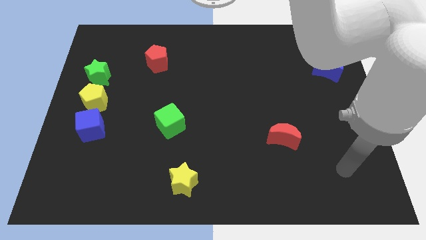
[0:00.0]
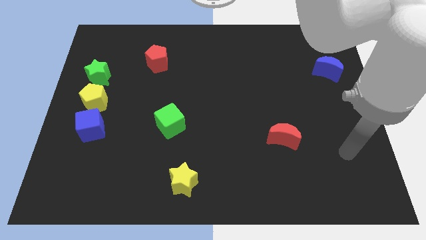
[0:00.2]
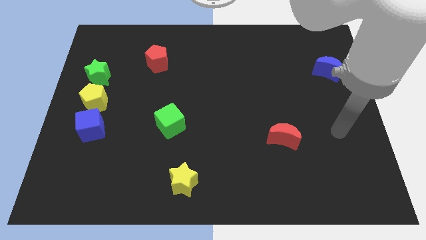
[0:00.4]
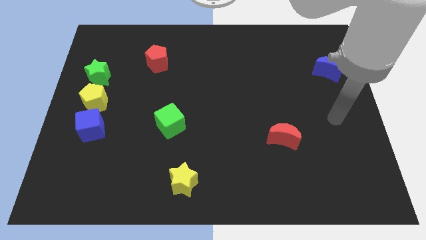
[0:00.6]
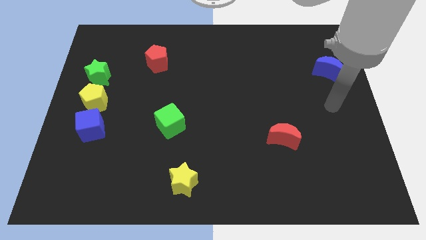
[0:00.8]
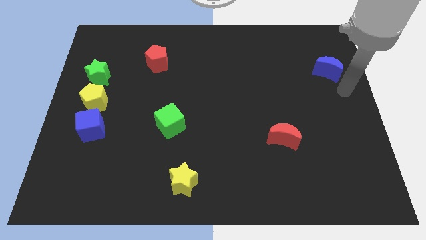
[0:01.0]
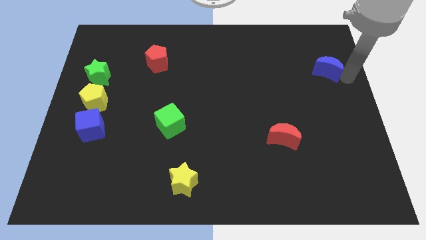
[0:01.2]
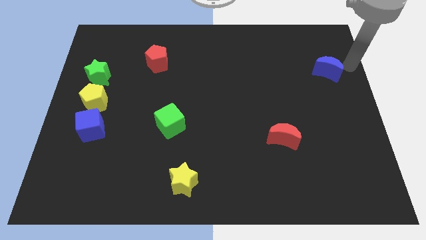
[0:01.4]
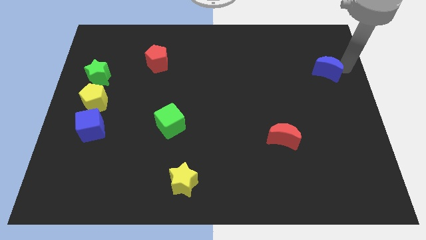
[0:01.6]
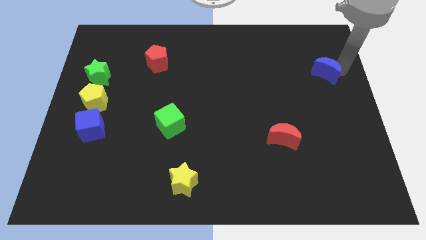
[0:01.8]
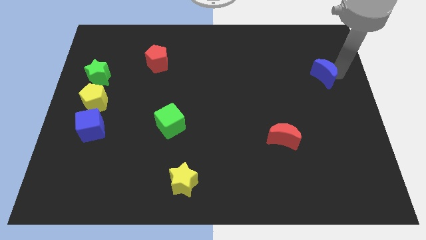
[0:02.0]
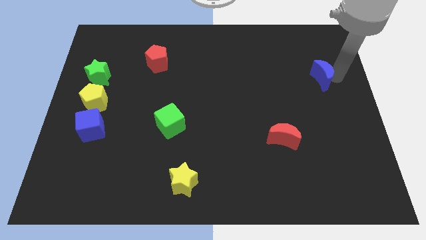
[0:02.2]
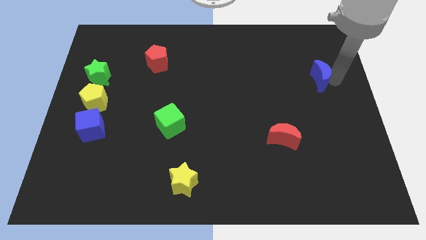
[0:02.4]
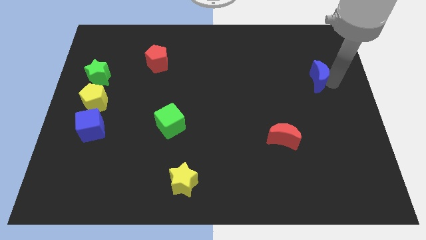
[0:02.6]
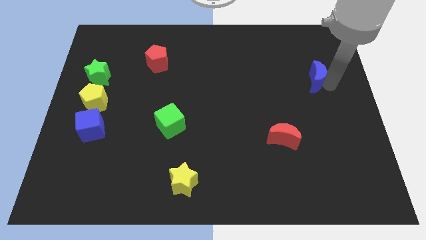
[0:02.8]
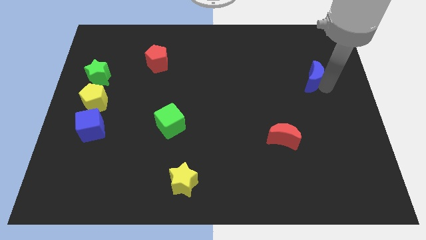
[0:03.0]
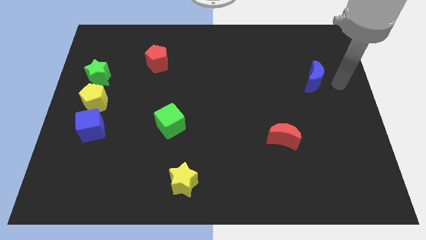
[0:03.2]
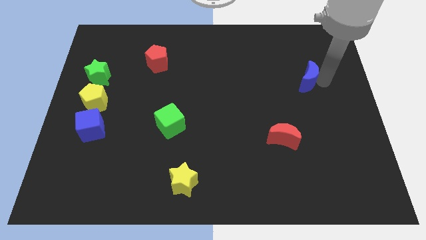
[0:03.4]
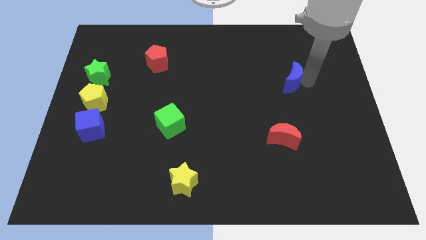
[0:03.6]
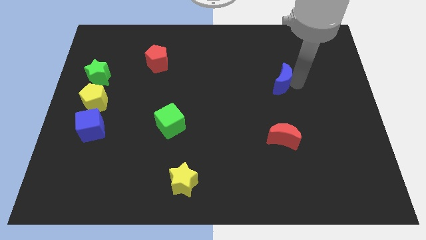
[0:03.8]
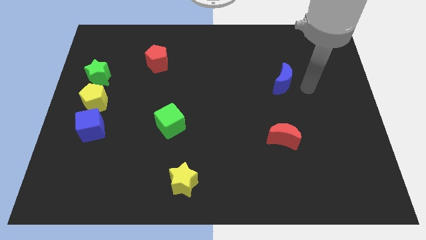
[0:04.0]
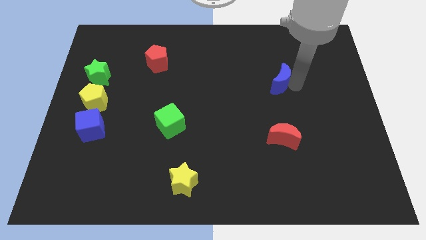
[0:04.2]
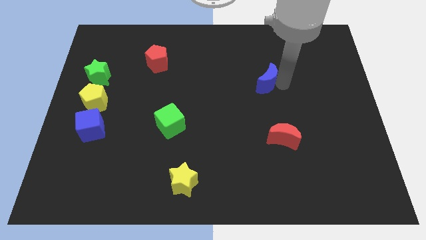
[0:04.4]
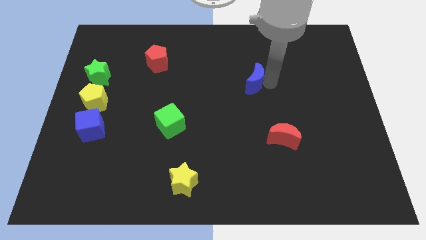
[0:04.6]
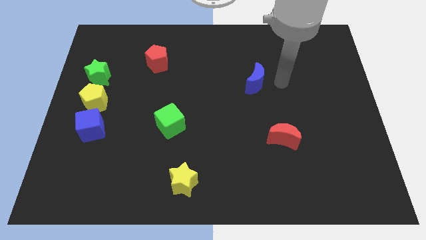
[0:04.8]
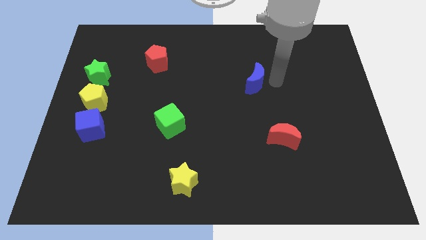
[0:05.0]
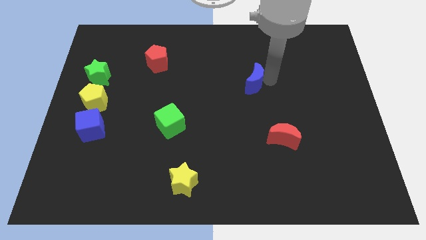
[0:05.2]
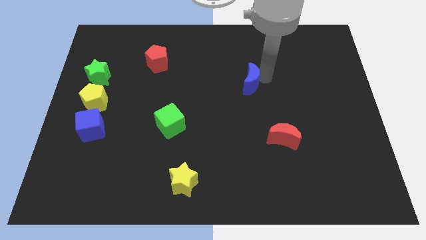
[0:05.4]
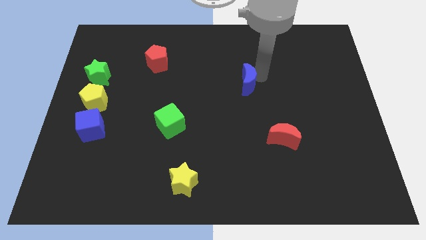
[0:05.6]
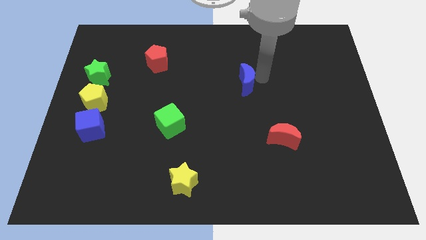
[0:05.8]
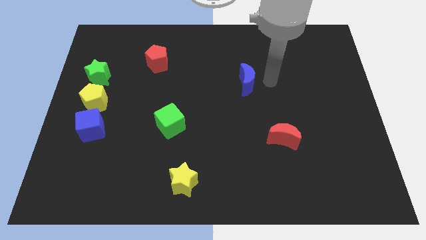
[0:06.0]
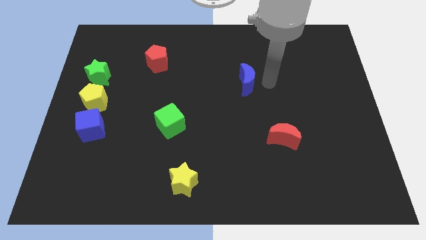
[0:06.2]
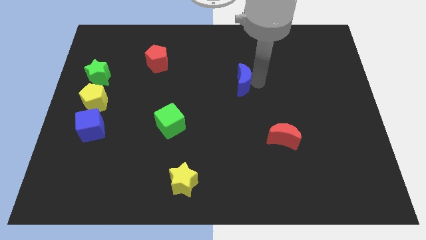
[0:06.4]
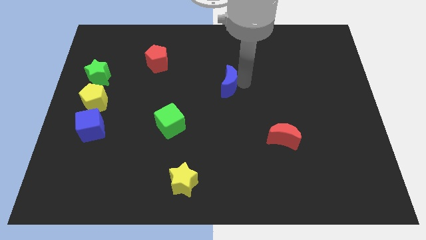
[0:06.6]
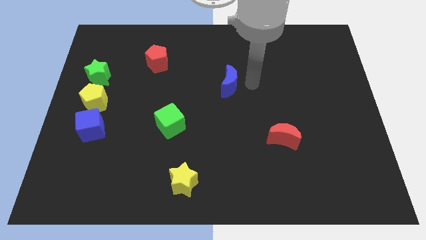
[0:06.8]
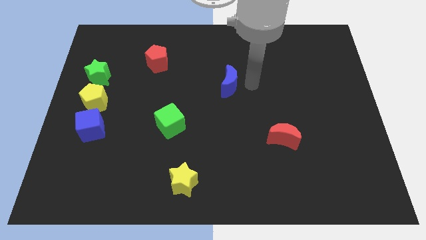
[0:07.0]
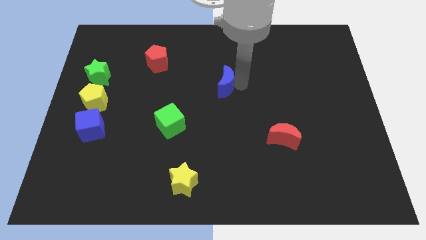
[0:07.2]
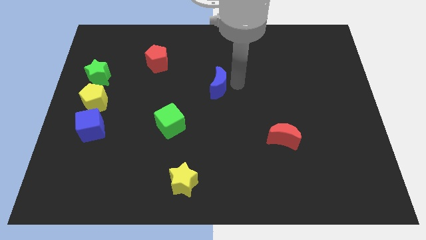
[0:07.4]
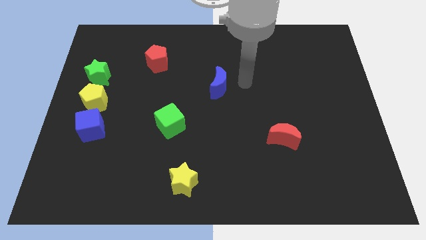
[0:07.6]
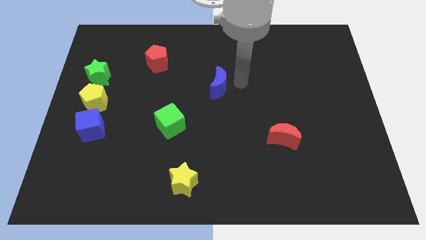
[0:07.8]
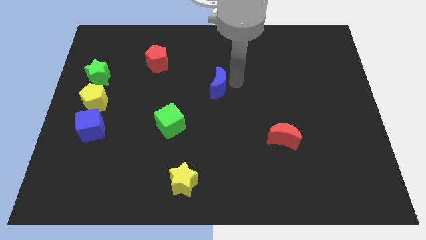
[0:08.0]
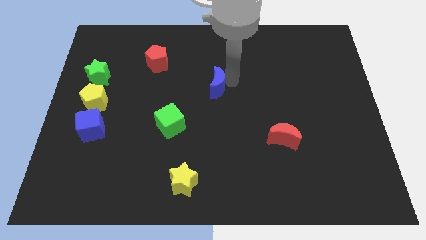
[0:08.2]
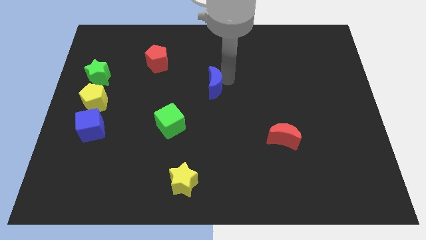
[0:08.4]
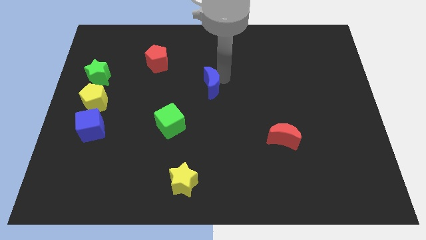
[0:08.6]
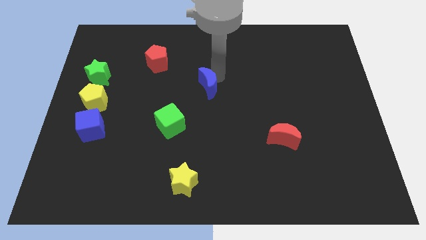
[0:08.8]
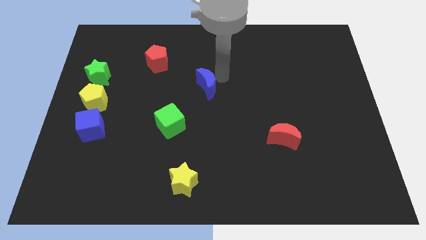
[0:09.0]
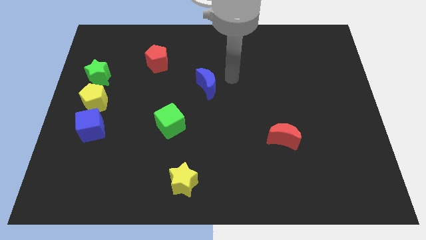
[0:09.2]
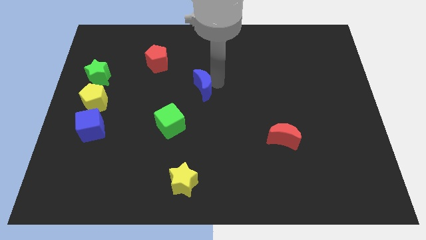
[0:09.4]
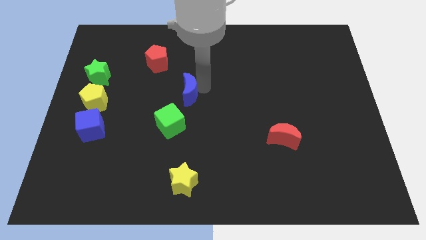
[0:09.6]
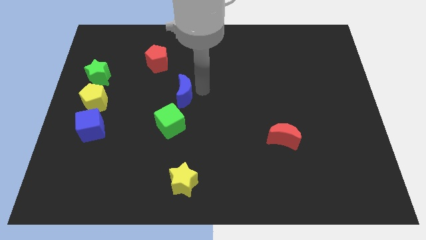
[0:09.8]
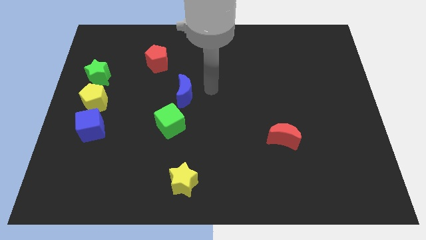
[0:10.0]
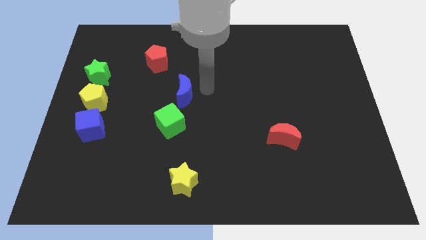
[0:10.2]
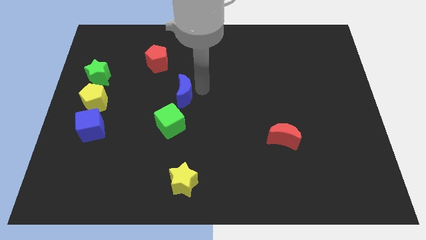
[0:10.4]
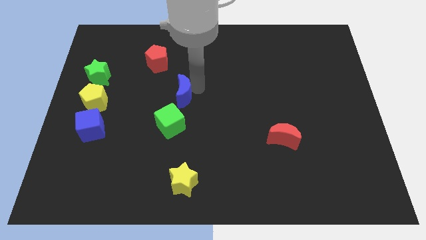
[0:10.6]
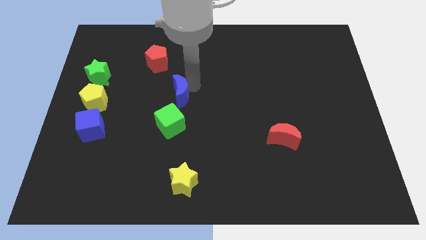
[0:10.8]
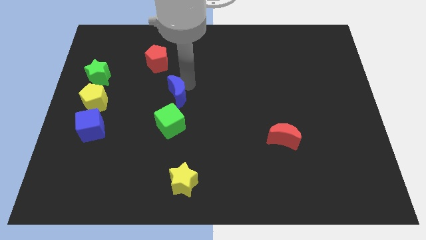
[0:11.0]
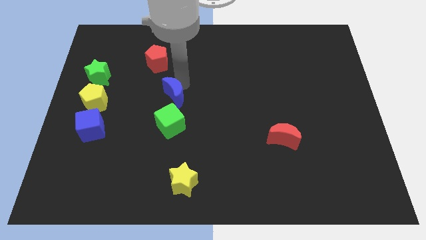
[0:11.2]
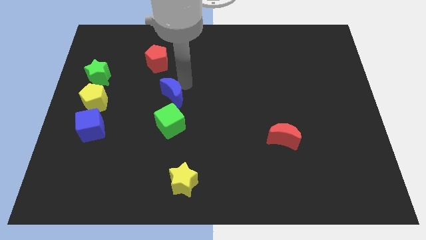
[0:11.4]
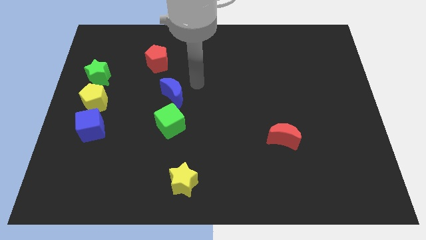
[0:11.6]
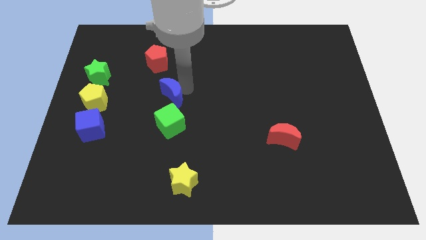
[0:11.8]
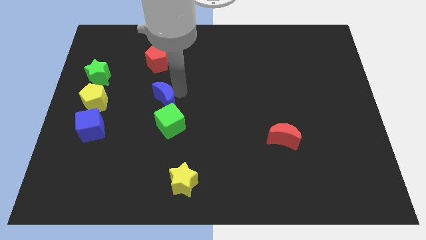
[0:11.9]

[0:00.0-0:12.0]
move the blue moon to the top left of the green cube
